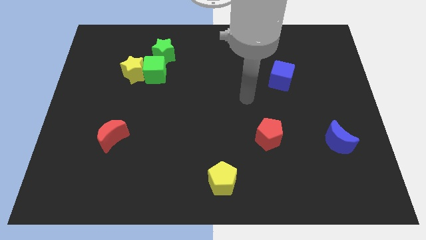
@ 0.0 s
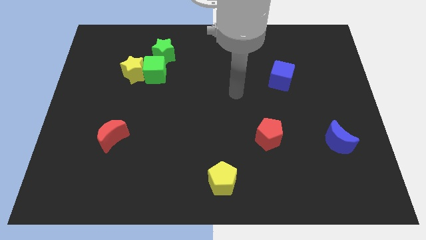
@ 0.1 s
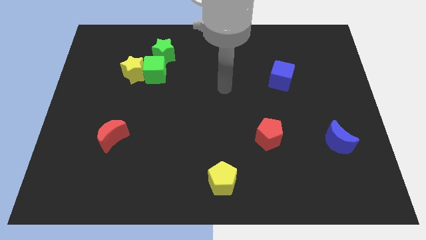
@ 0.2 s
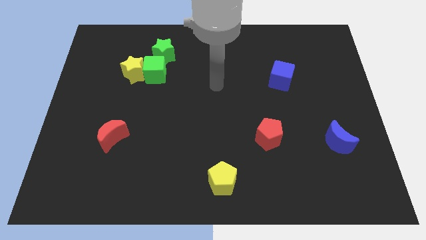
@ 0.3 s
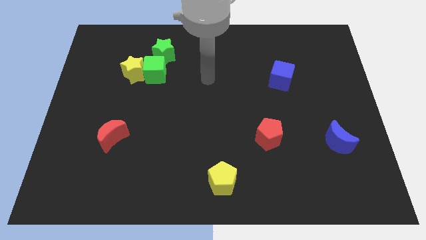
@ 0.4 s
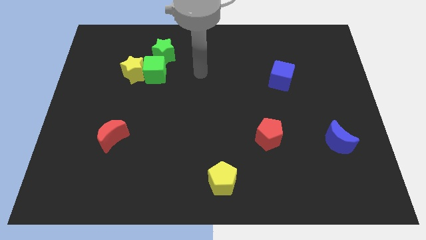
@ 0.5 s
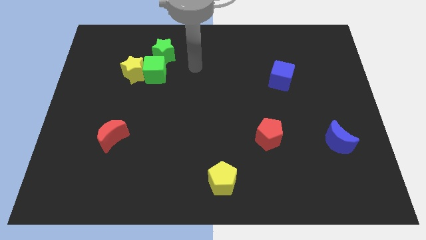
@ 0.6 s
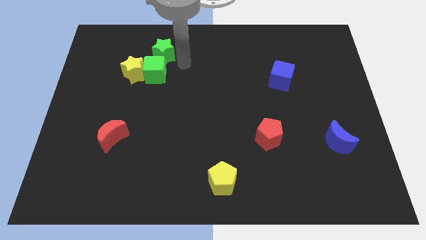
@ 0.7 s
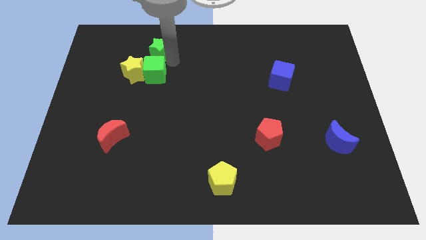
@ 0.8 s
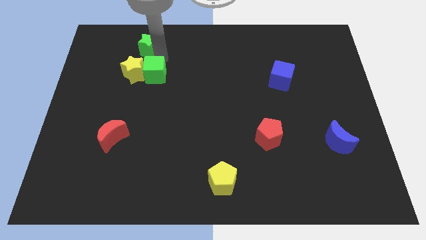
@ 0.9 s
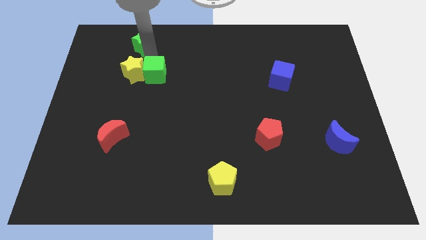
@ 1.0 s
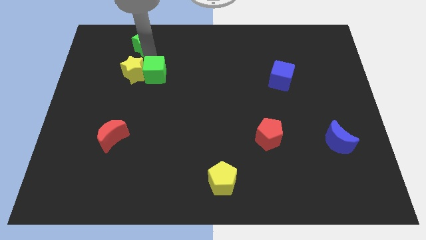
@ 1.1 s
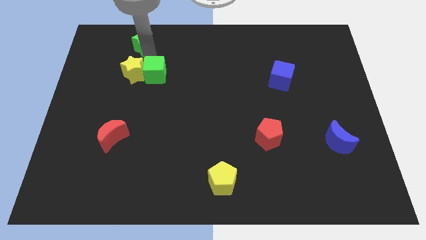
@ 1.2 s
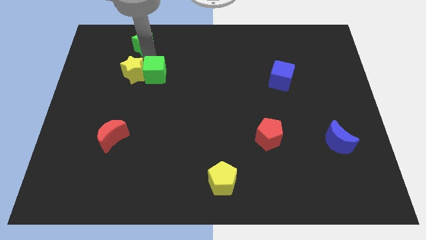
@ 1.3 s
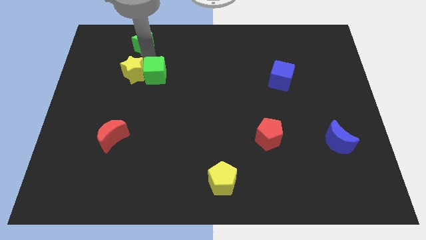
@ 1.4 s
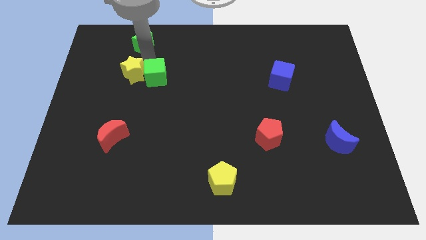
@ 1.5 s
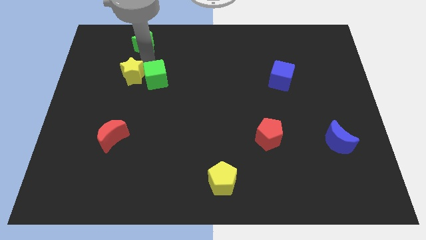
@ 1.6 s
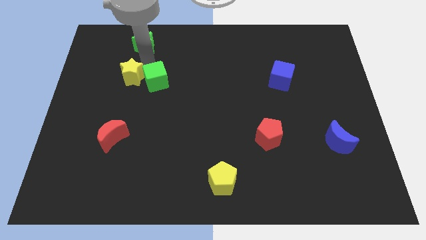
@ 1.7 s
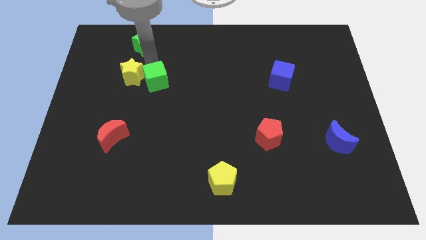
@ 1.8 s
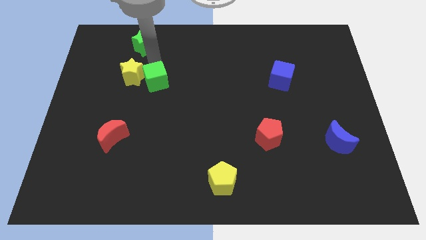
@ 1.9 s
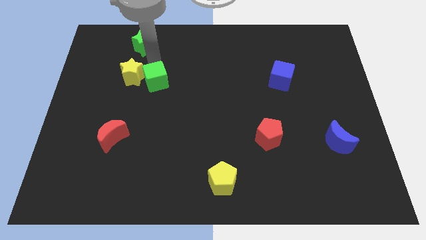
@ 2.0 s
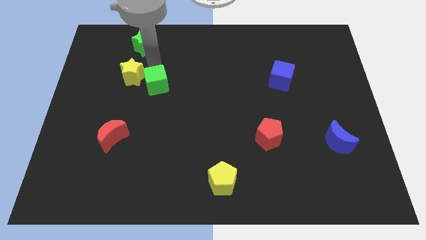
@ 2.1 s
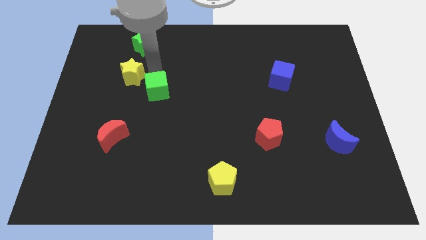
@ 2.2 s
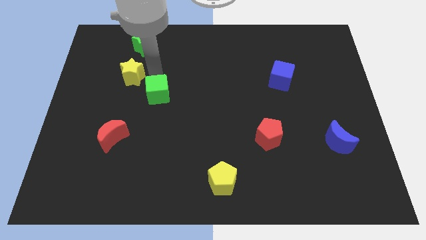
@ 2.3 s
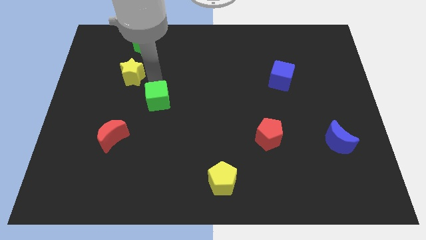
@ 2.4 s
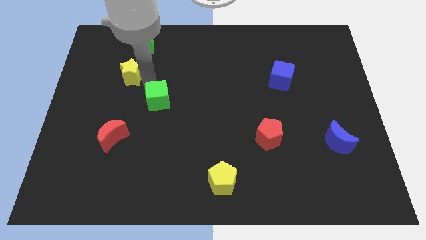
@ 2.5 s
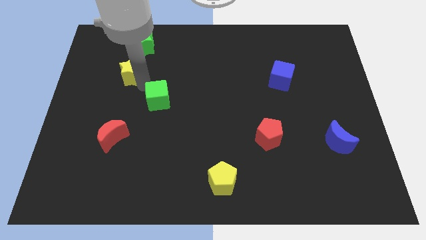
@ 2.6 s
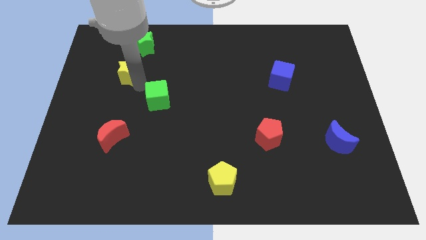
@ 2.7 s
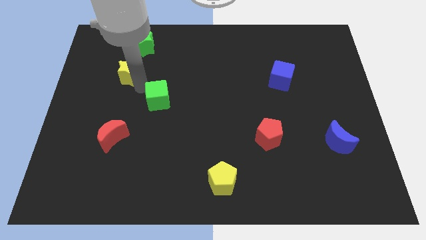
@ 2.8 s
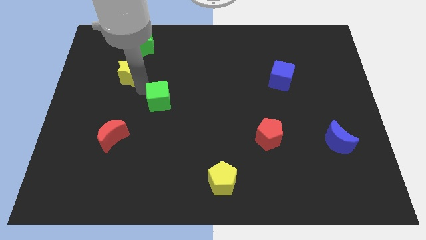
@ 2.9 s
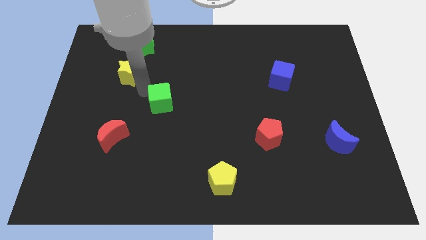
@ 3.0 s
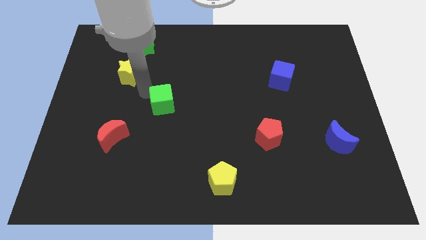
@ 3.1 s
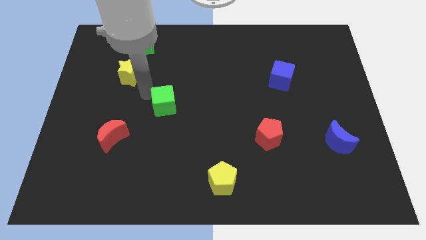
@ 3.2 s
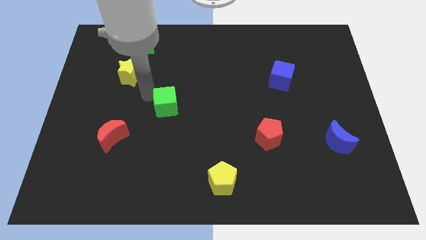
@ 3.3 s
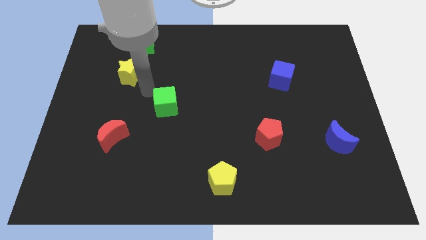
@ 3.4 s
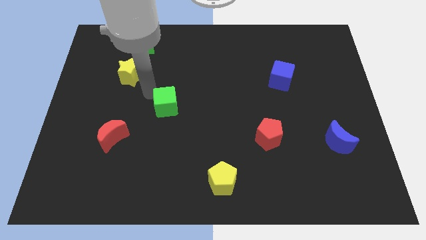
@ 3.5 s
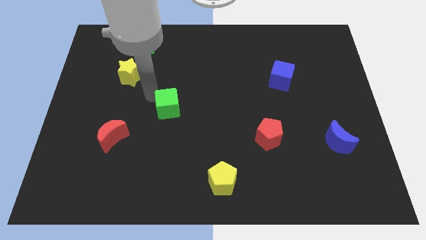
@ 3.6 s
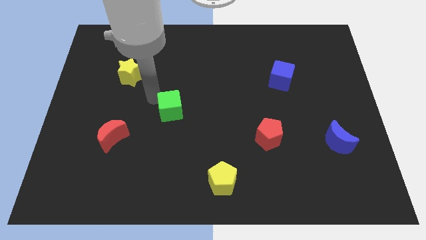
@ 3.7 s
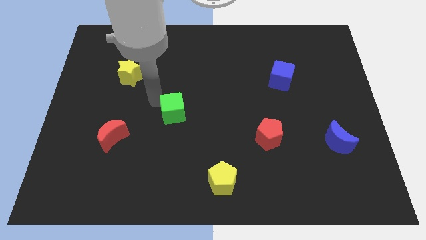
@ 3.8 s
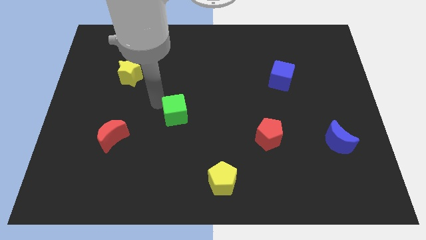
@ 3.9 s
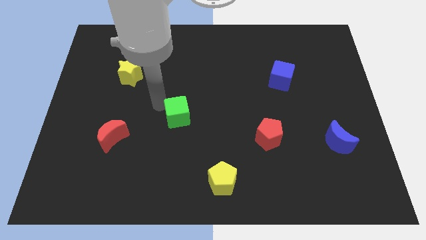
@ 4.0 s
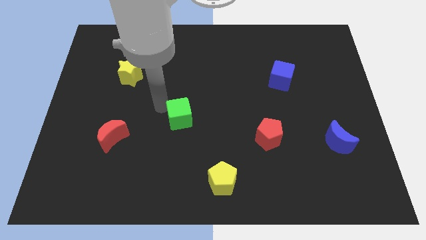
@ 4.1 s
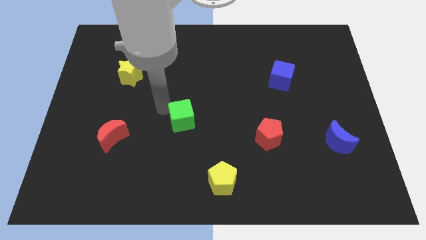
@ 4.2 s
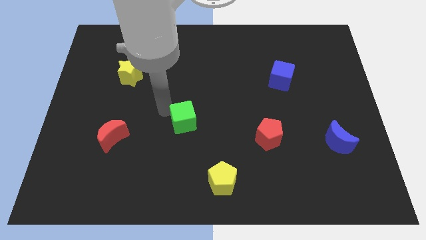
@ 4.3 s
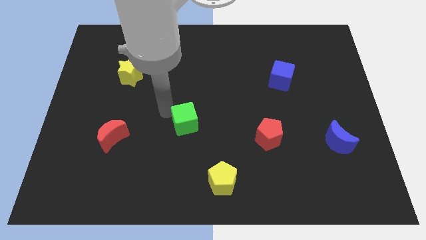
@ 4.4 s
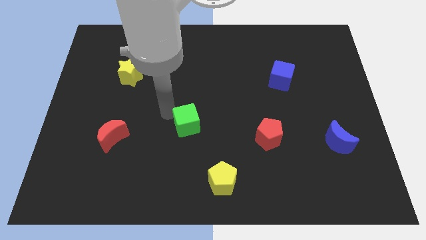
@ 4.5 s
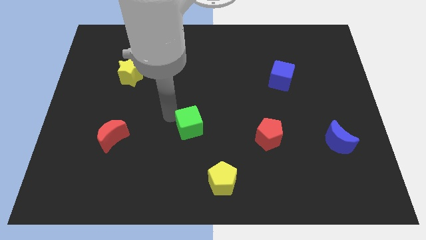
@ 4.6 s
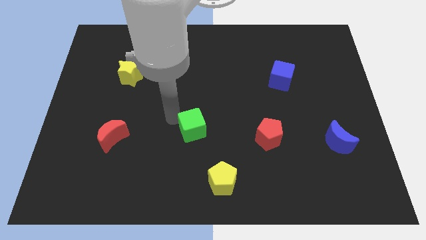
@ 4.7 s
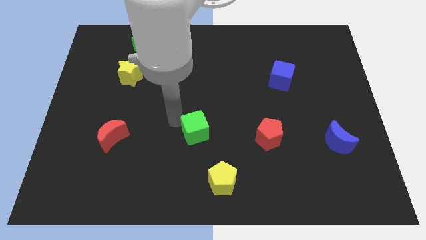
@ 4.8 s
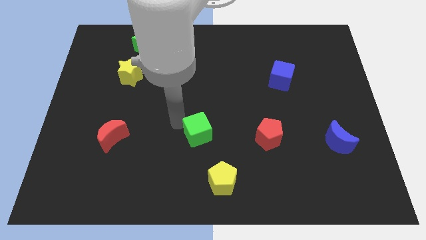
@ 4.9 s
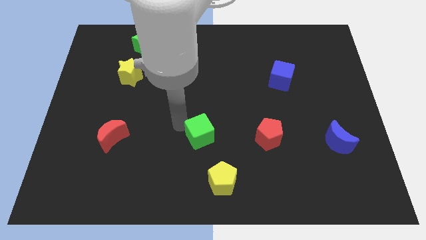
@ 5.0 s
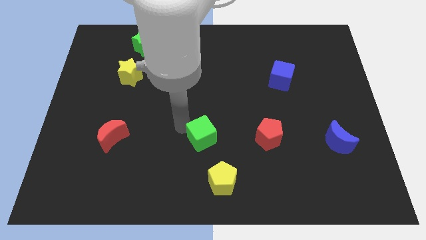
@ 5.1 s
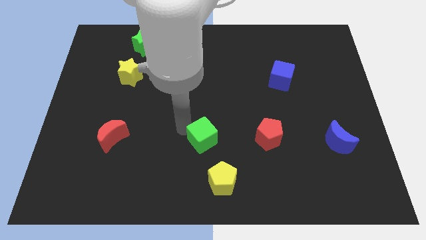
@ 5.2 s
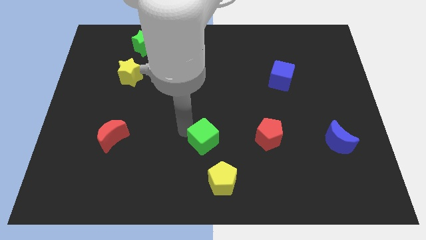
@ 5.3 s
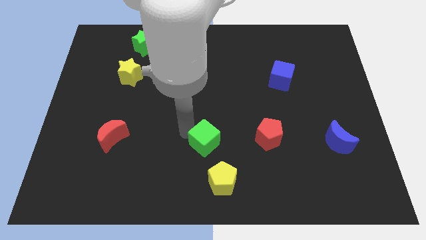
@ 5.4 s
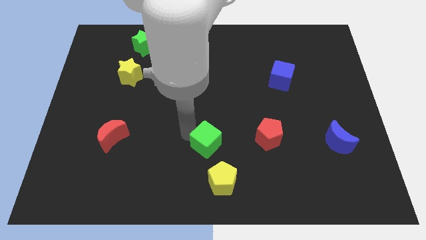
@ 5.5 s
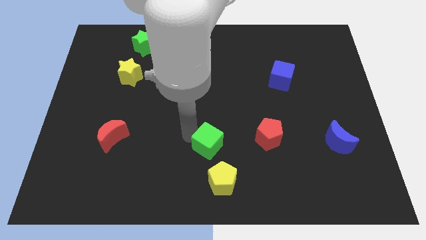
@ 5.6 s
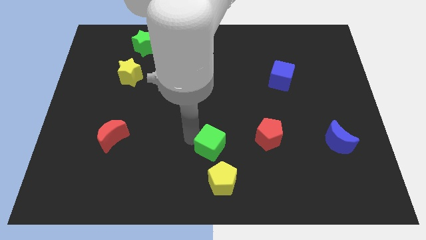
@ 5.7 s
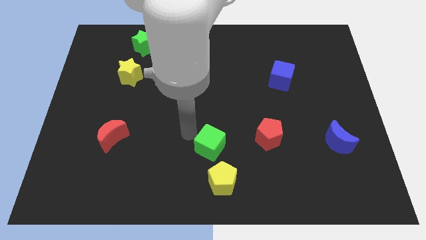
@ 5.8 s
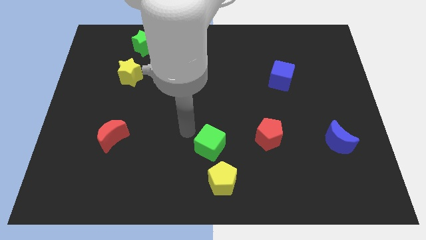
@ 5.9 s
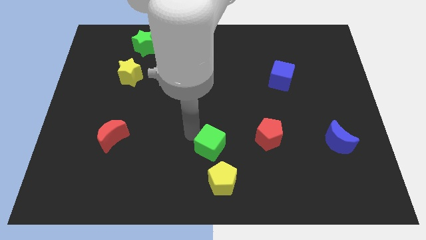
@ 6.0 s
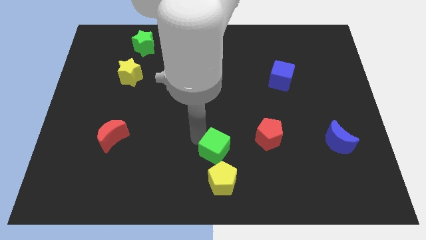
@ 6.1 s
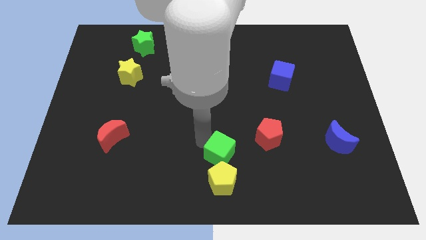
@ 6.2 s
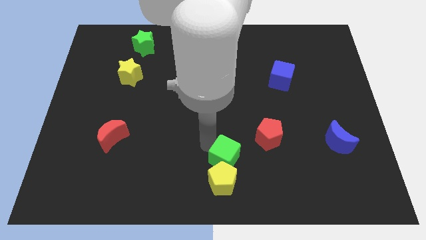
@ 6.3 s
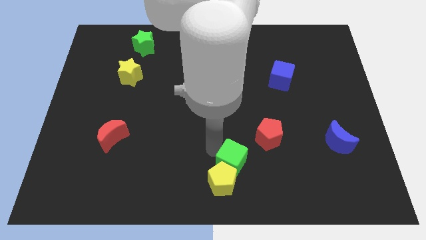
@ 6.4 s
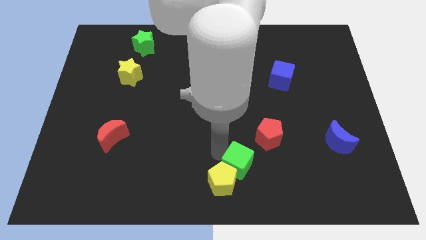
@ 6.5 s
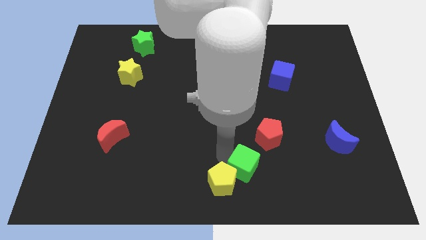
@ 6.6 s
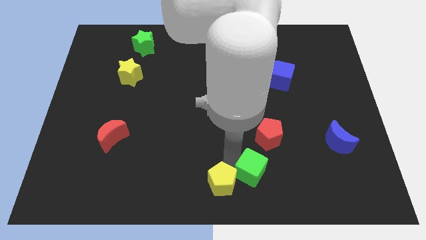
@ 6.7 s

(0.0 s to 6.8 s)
push the green cube to the bottom of the red pentagon
